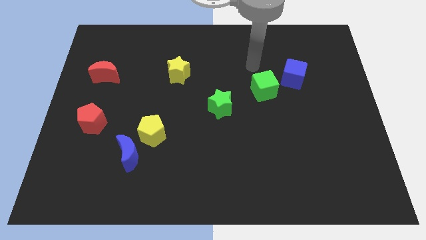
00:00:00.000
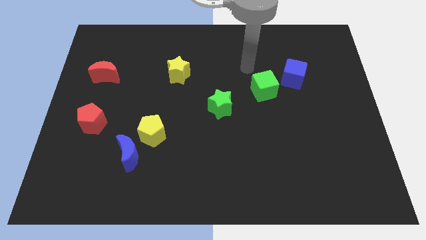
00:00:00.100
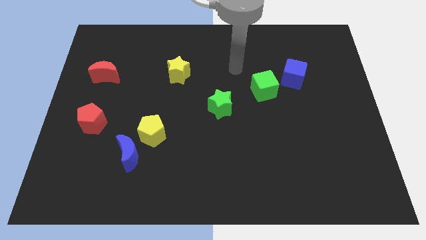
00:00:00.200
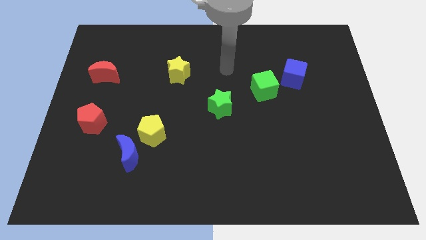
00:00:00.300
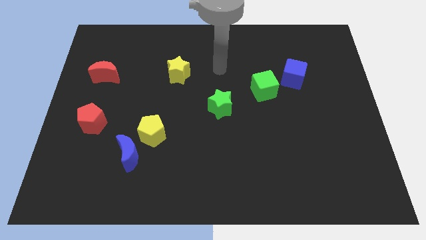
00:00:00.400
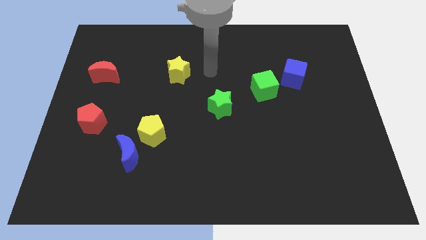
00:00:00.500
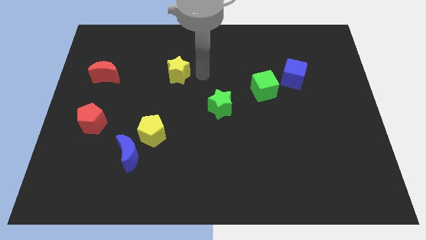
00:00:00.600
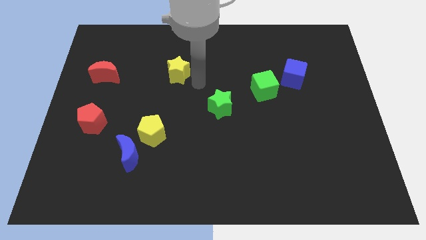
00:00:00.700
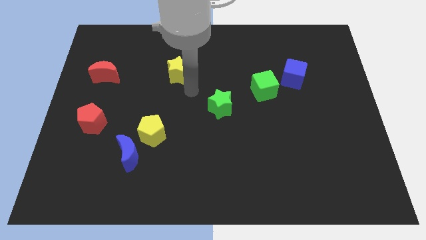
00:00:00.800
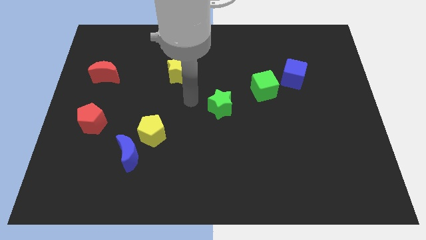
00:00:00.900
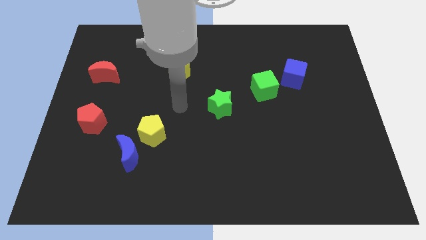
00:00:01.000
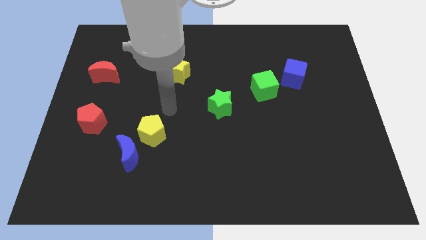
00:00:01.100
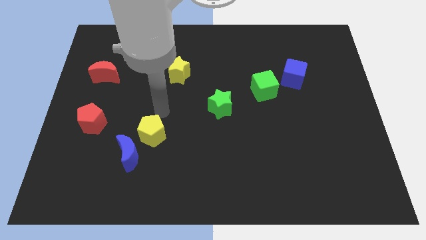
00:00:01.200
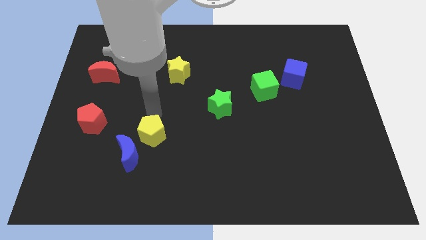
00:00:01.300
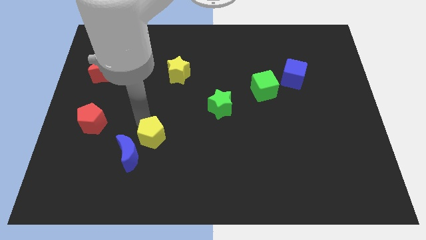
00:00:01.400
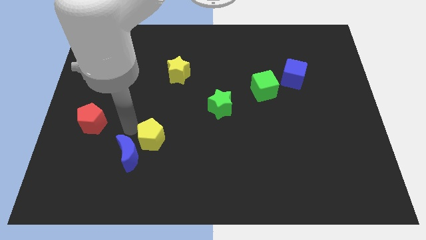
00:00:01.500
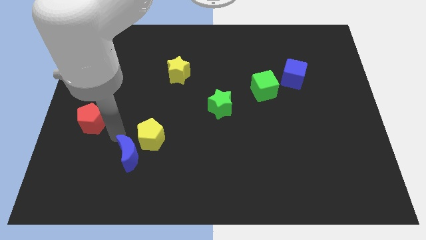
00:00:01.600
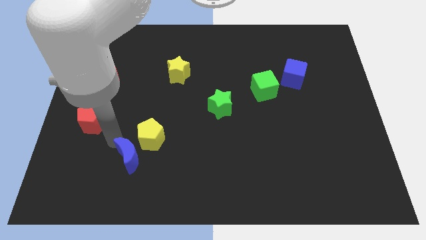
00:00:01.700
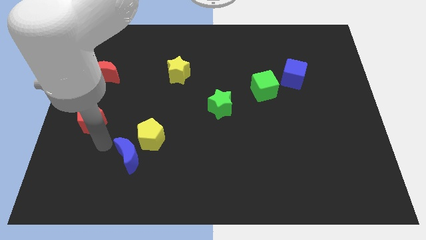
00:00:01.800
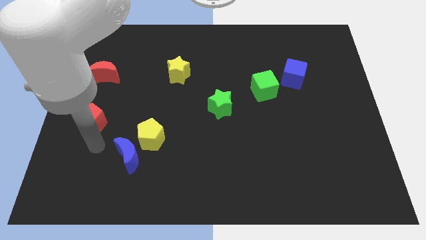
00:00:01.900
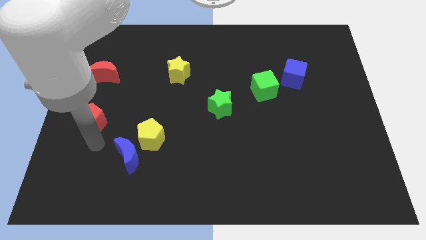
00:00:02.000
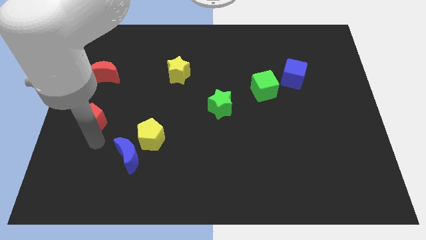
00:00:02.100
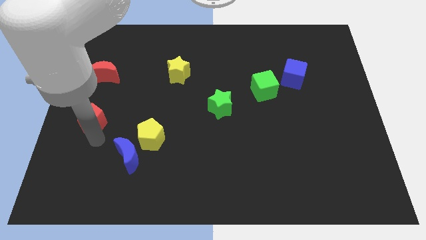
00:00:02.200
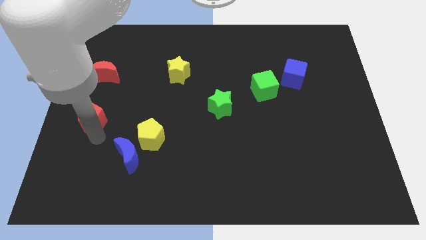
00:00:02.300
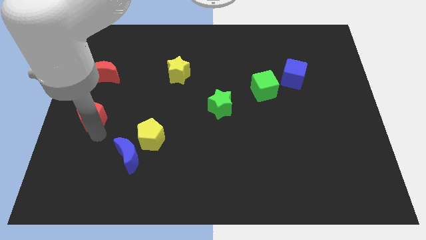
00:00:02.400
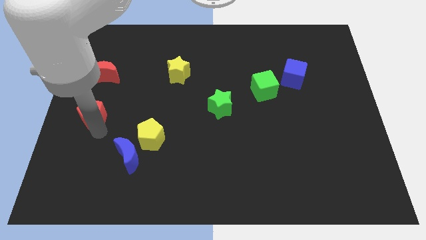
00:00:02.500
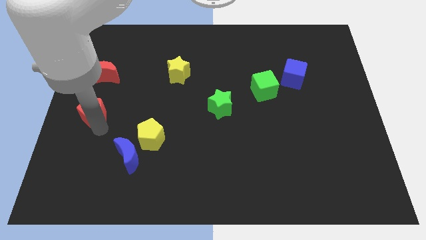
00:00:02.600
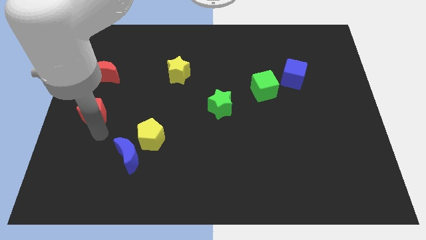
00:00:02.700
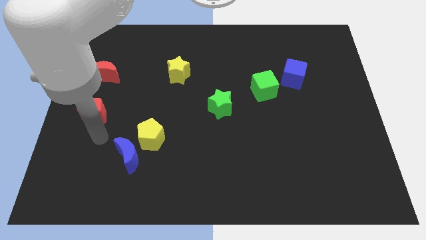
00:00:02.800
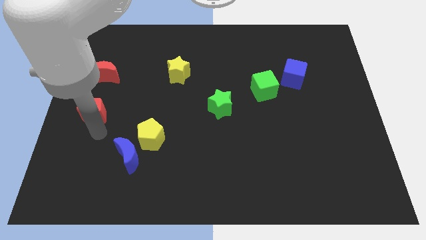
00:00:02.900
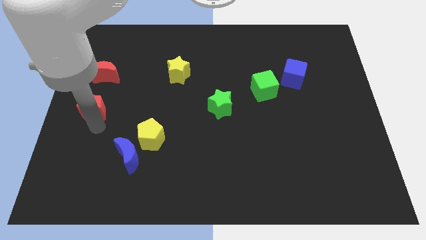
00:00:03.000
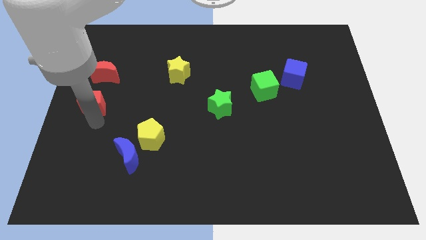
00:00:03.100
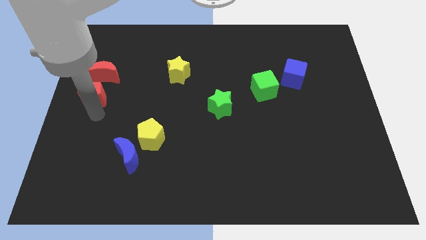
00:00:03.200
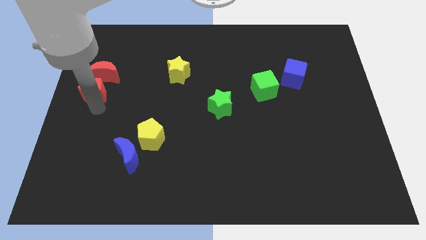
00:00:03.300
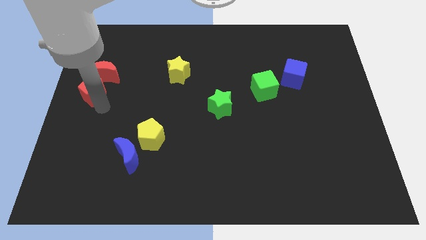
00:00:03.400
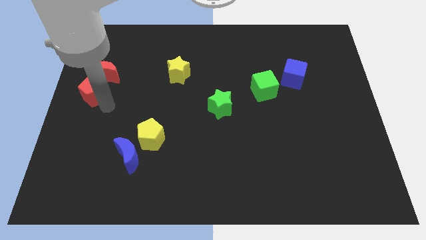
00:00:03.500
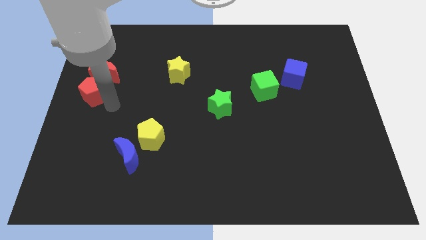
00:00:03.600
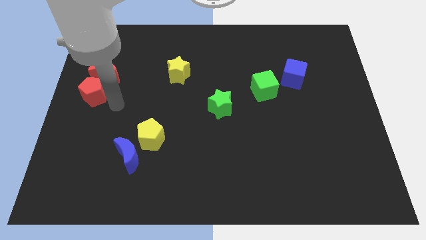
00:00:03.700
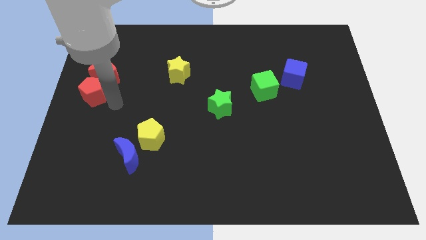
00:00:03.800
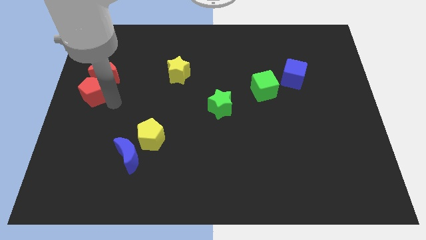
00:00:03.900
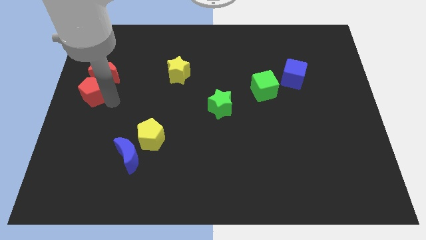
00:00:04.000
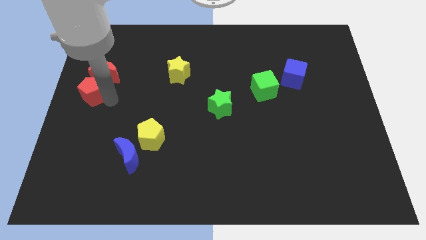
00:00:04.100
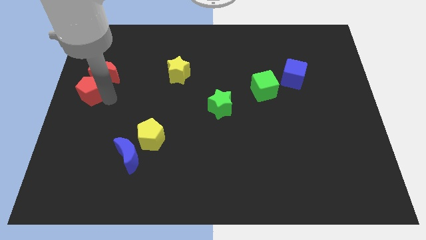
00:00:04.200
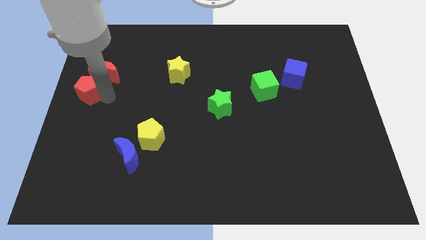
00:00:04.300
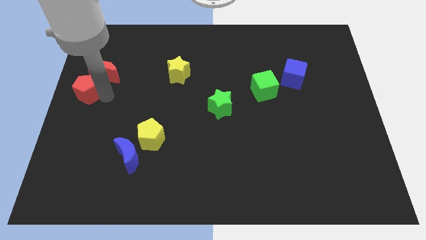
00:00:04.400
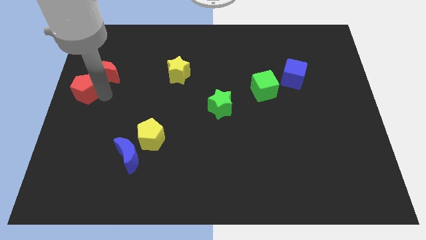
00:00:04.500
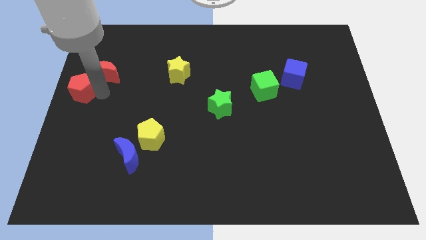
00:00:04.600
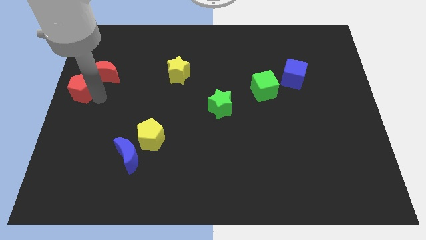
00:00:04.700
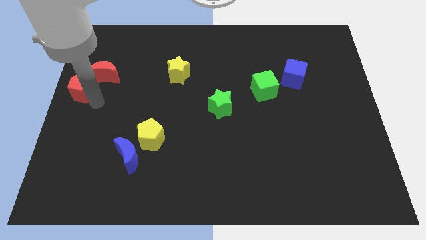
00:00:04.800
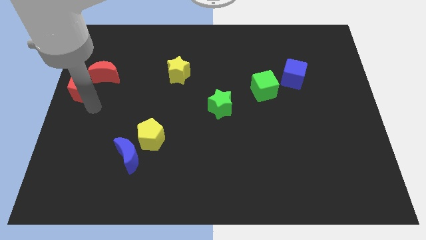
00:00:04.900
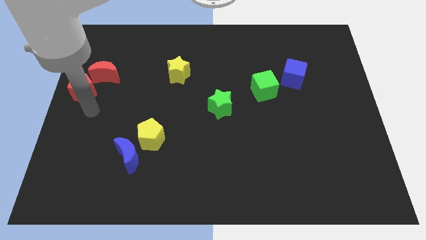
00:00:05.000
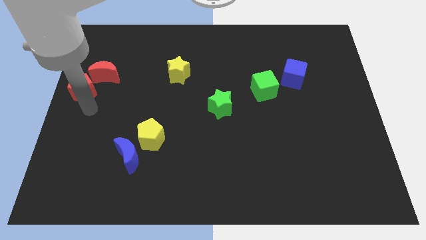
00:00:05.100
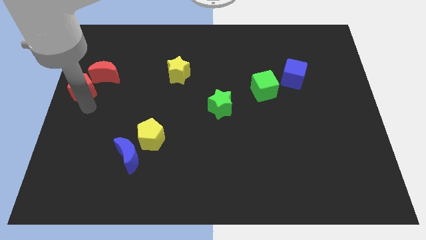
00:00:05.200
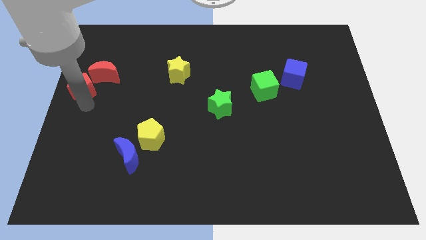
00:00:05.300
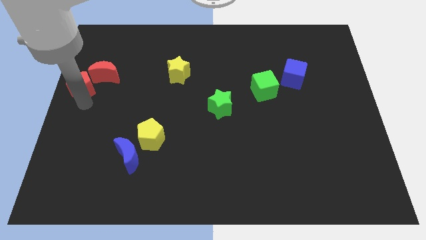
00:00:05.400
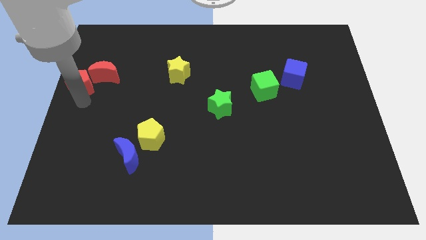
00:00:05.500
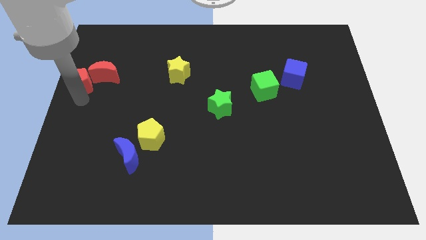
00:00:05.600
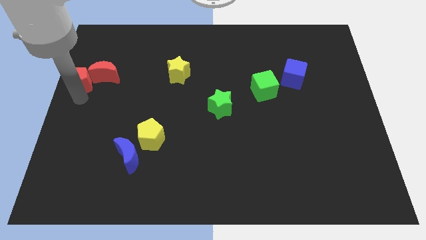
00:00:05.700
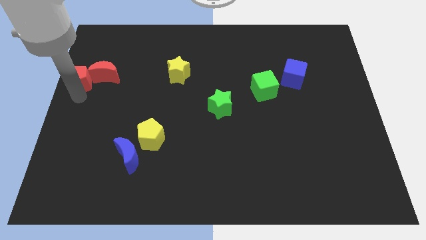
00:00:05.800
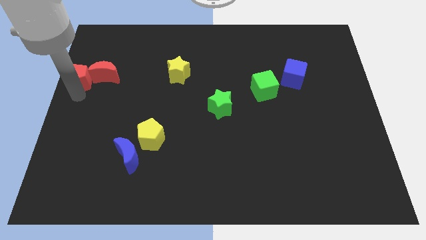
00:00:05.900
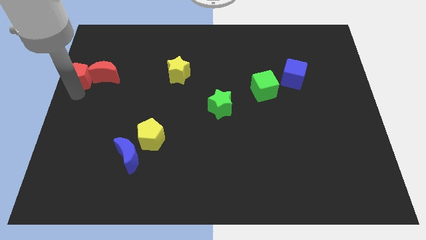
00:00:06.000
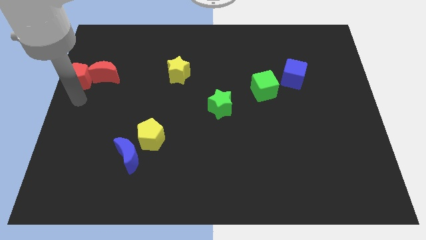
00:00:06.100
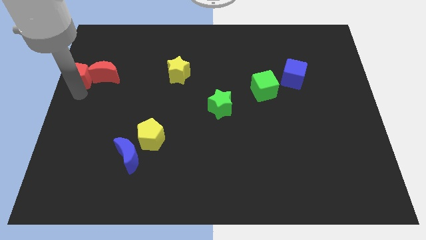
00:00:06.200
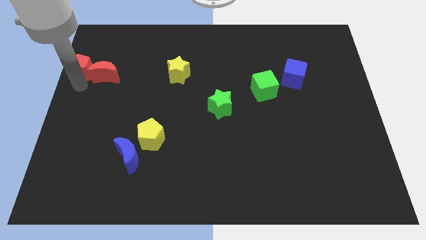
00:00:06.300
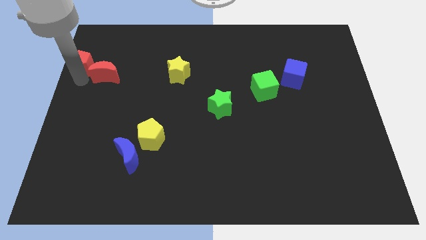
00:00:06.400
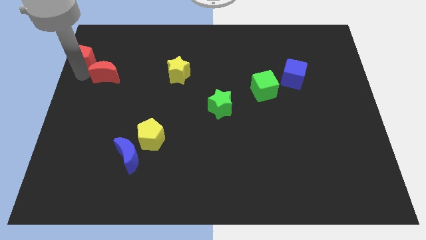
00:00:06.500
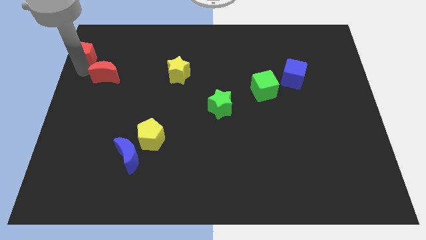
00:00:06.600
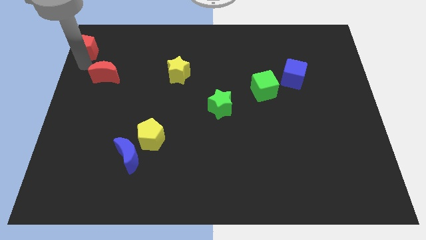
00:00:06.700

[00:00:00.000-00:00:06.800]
move the red pentagon to the top left corner

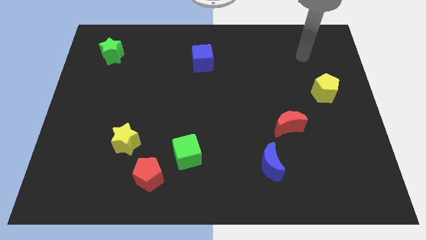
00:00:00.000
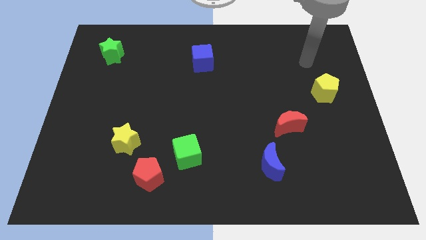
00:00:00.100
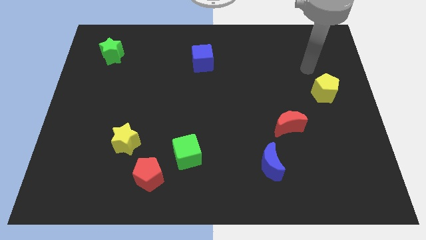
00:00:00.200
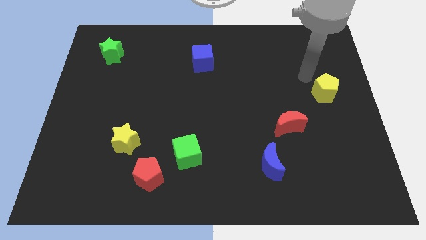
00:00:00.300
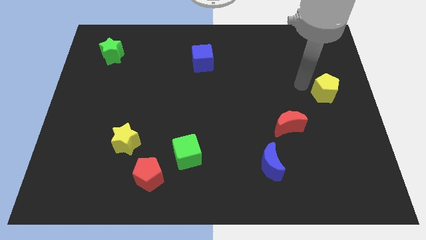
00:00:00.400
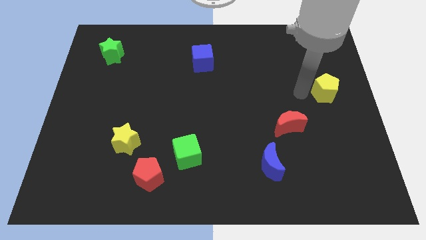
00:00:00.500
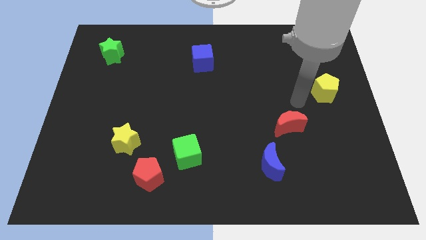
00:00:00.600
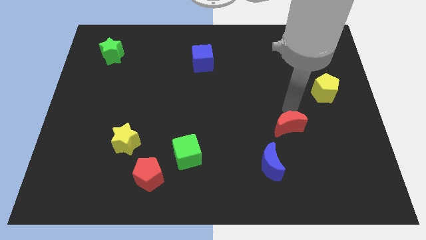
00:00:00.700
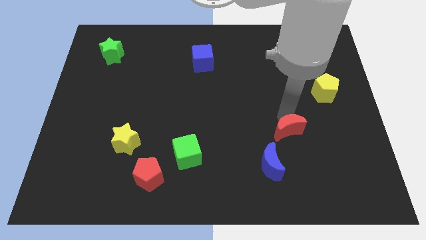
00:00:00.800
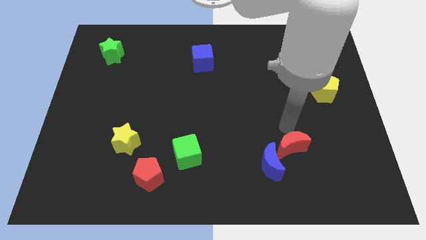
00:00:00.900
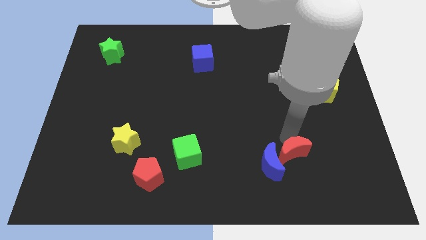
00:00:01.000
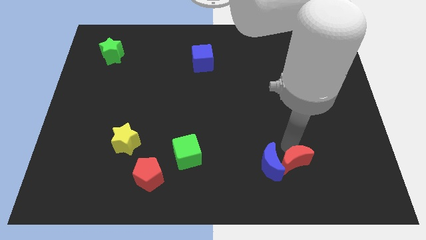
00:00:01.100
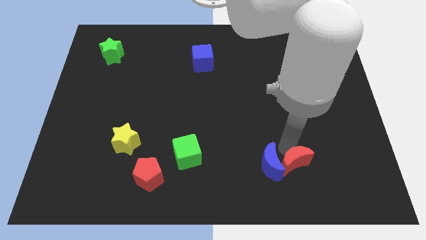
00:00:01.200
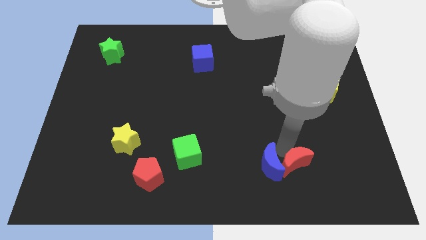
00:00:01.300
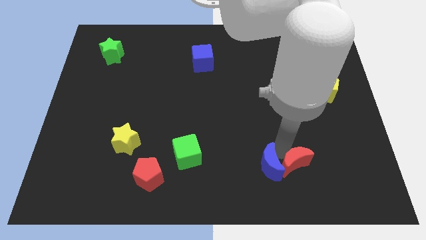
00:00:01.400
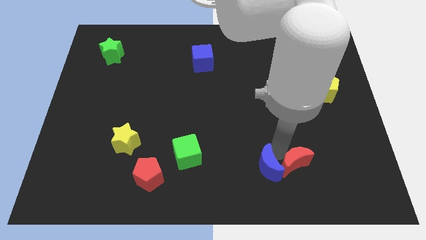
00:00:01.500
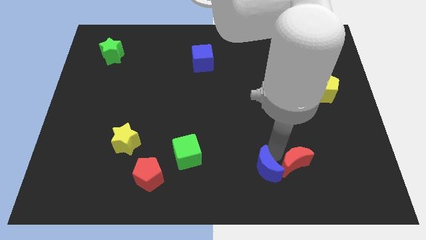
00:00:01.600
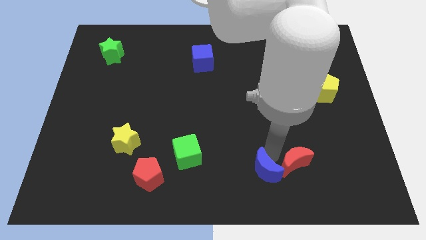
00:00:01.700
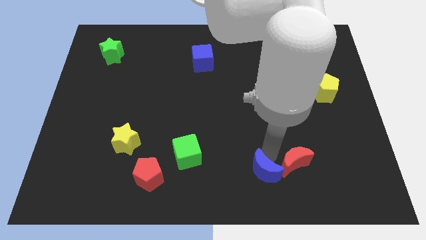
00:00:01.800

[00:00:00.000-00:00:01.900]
push the blue moon to the bottom
